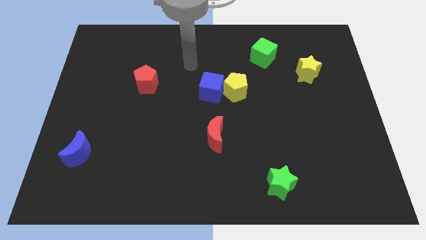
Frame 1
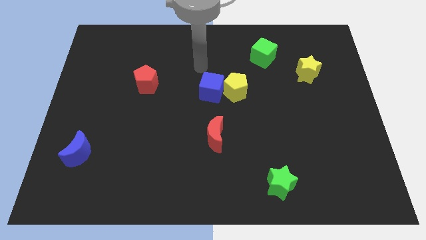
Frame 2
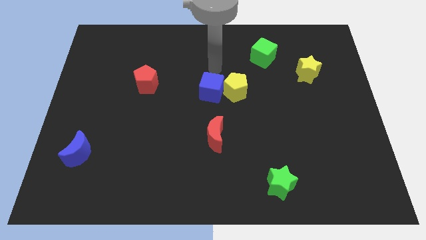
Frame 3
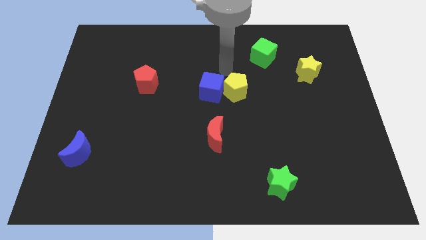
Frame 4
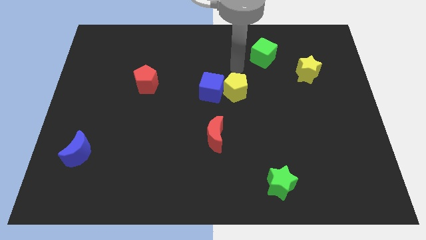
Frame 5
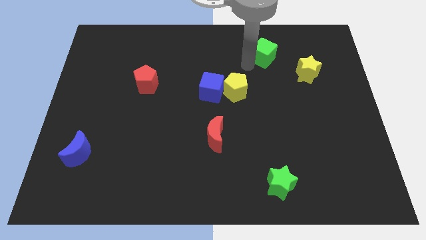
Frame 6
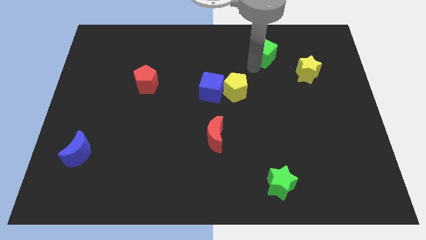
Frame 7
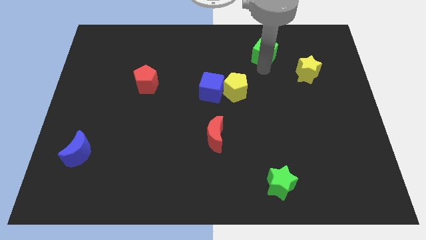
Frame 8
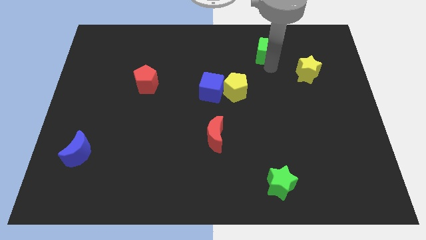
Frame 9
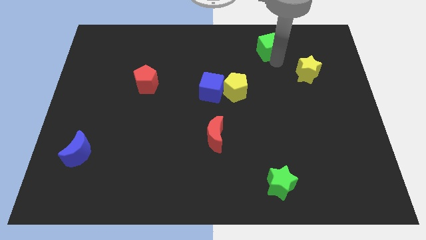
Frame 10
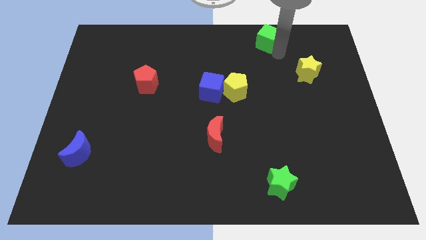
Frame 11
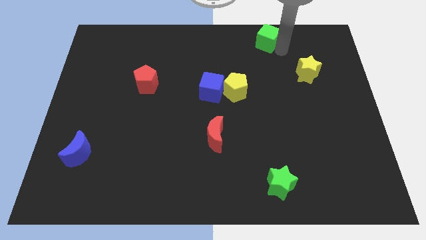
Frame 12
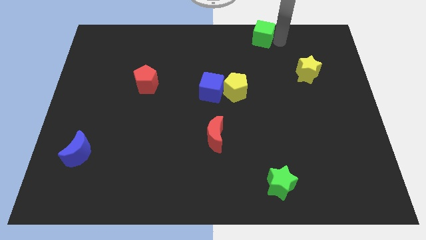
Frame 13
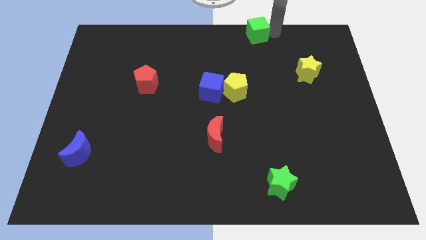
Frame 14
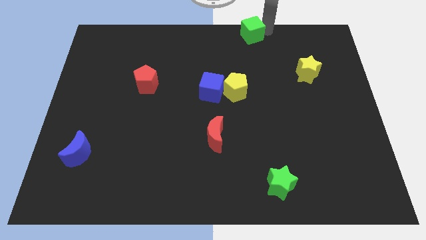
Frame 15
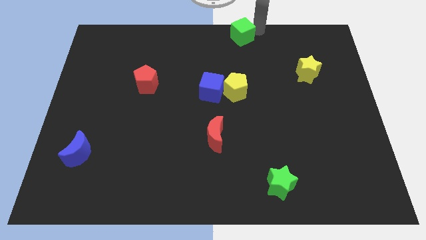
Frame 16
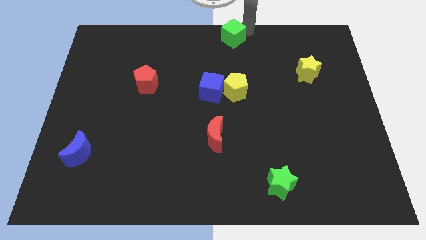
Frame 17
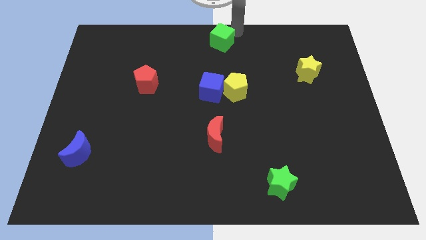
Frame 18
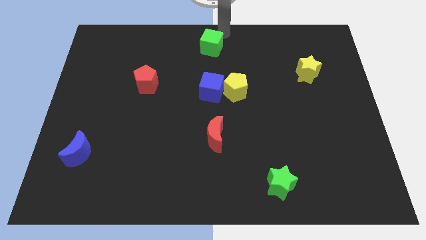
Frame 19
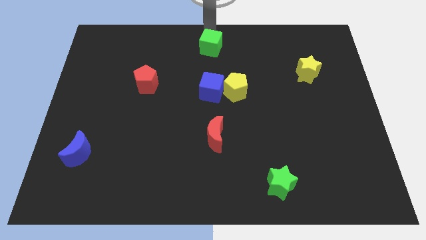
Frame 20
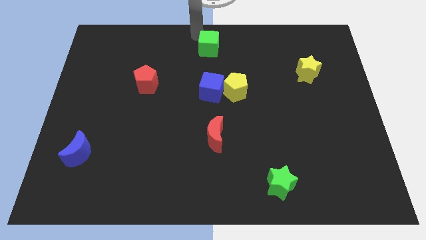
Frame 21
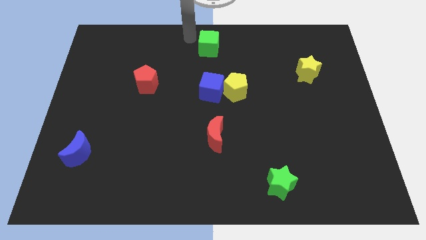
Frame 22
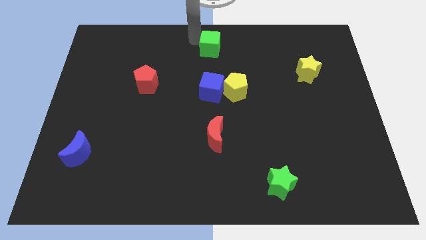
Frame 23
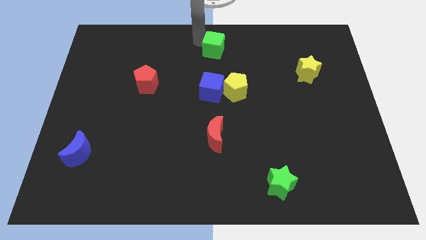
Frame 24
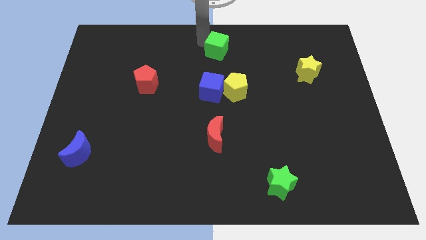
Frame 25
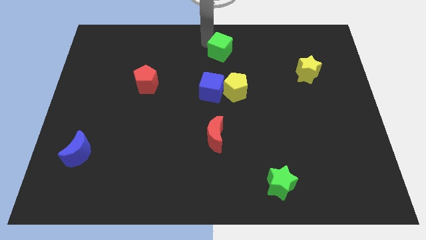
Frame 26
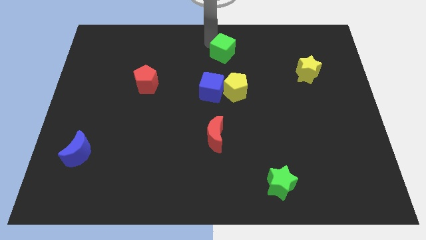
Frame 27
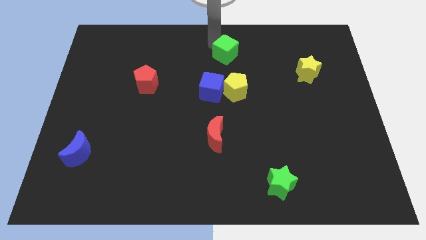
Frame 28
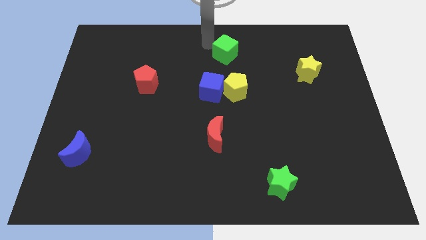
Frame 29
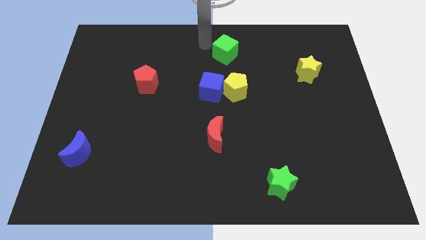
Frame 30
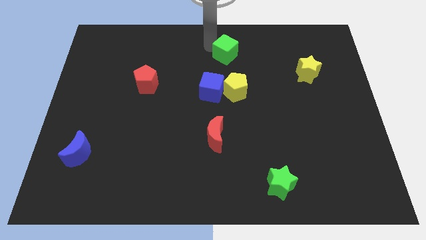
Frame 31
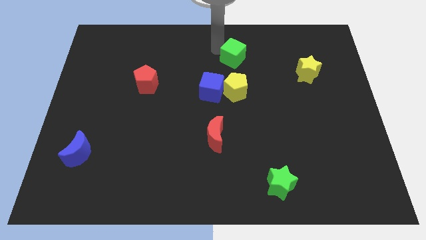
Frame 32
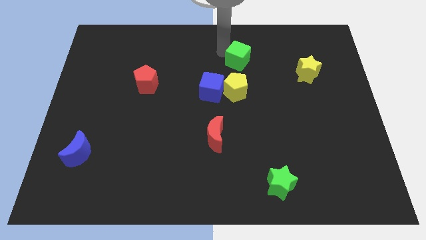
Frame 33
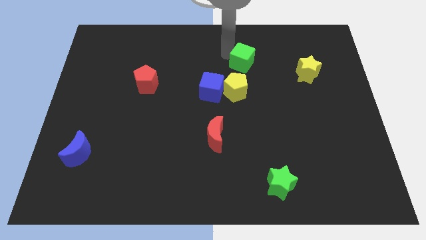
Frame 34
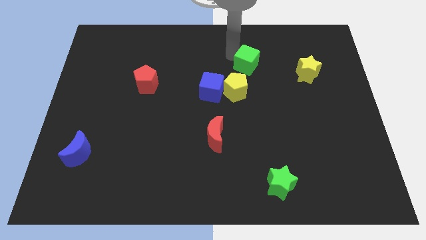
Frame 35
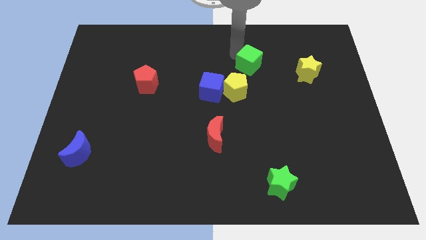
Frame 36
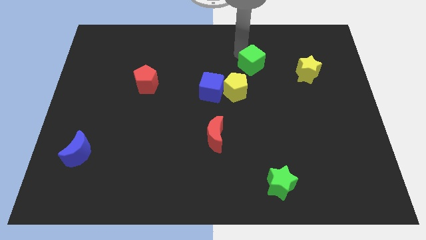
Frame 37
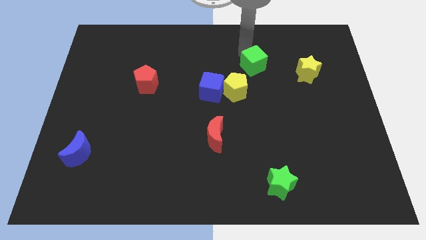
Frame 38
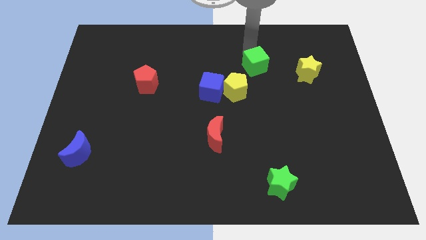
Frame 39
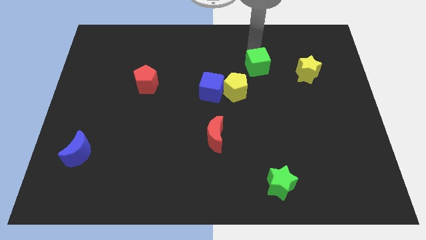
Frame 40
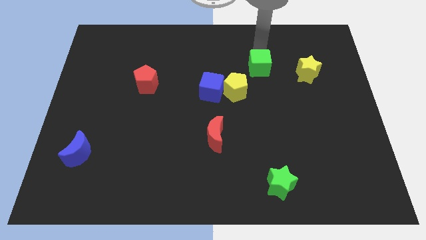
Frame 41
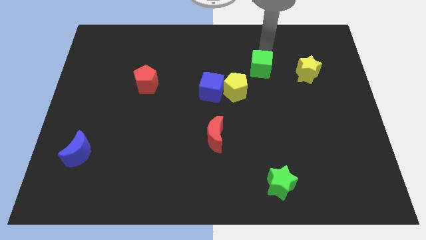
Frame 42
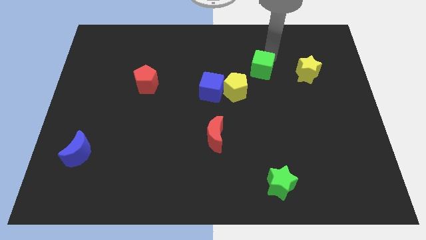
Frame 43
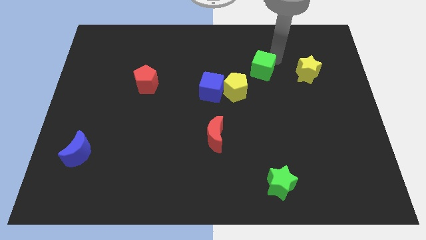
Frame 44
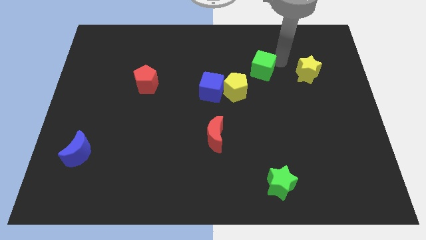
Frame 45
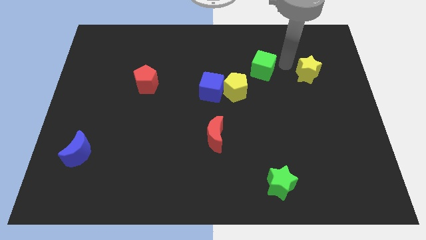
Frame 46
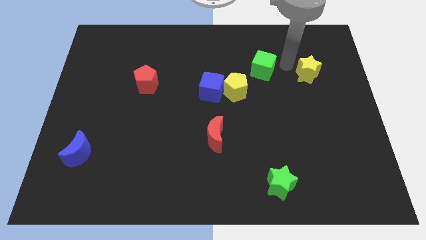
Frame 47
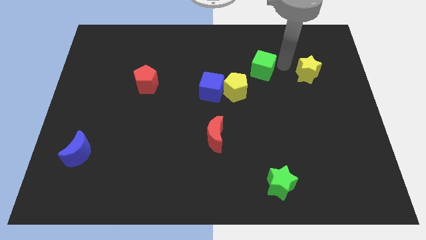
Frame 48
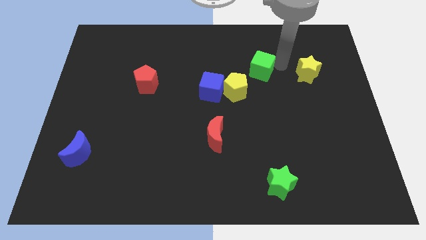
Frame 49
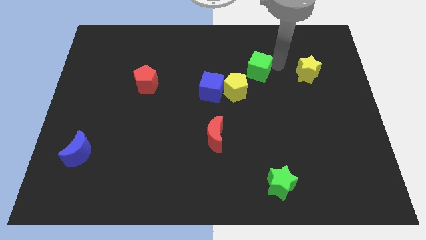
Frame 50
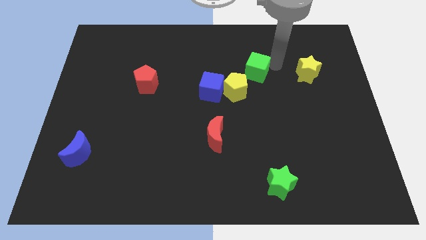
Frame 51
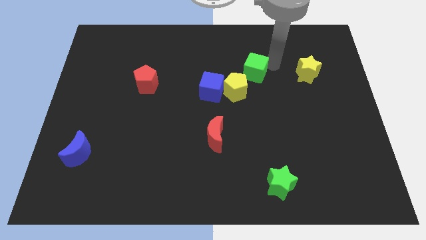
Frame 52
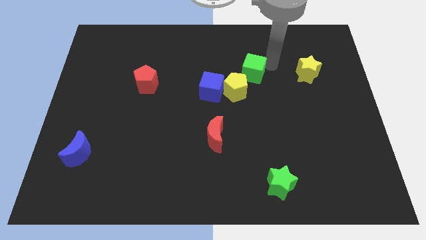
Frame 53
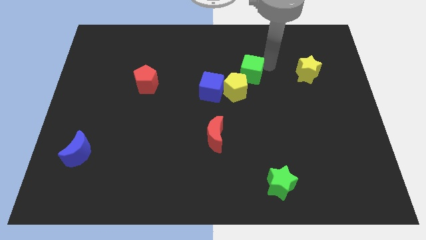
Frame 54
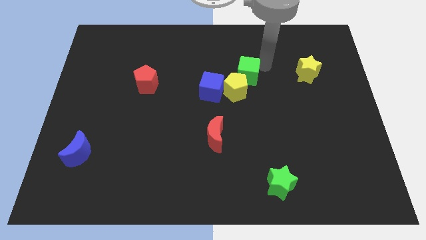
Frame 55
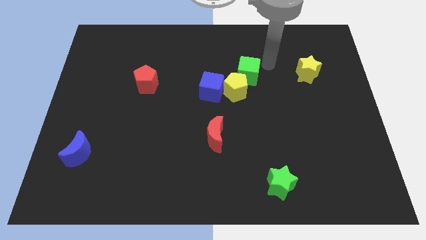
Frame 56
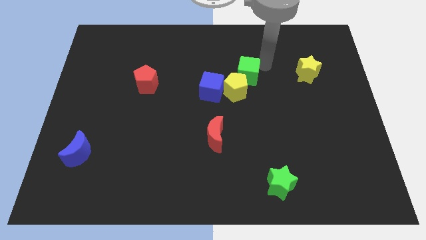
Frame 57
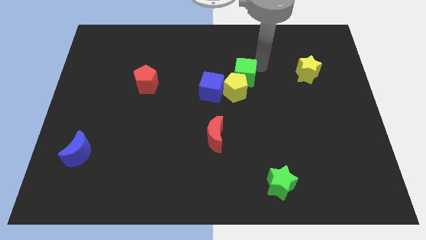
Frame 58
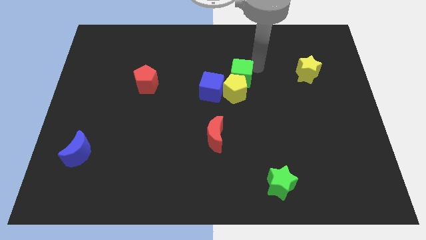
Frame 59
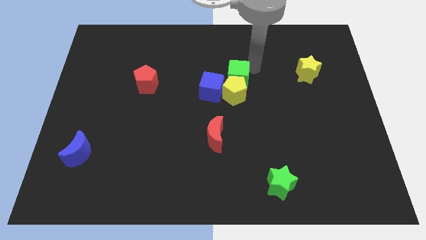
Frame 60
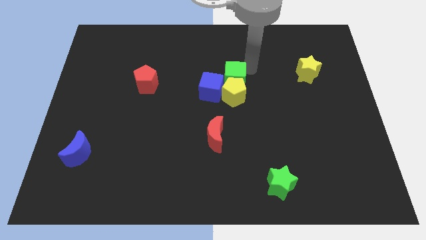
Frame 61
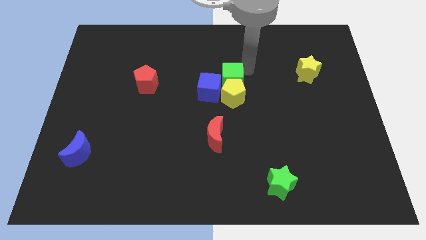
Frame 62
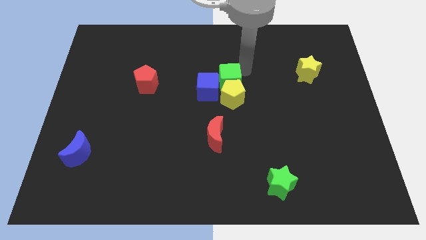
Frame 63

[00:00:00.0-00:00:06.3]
put the green cube next to the blue cube

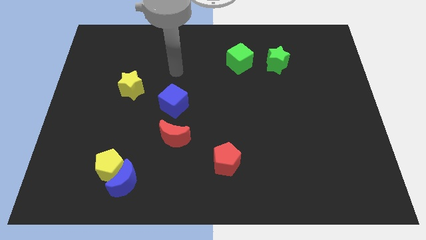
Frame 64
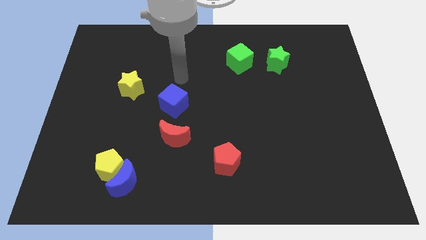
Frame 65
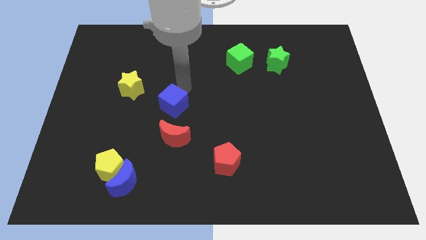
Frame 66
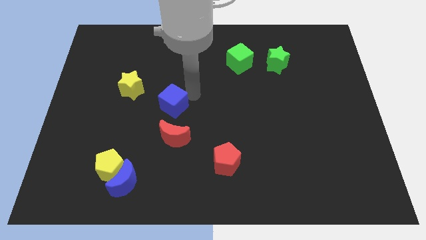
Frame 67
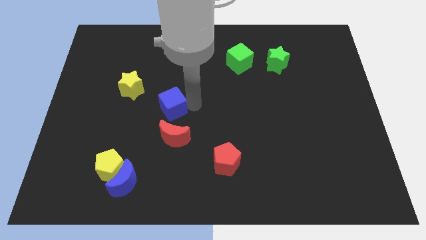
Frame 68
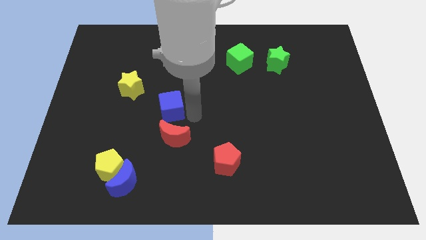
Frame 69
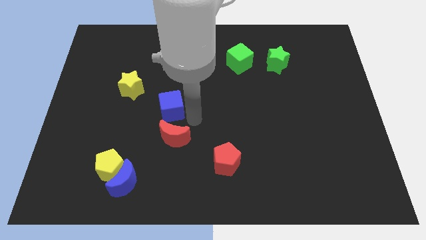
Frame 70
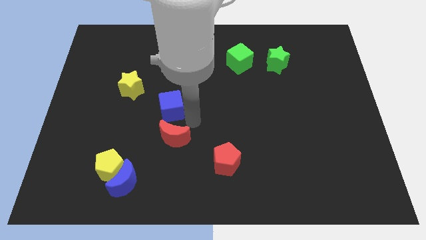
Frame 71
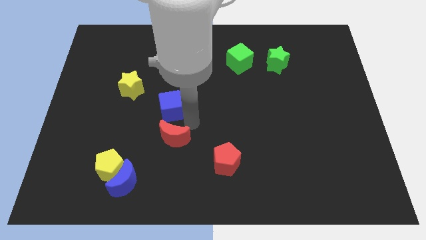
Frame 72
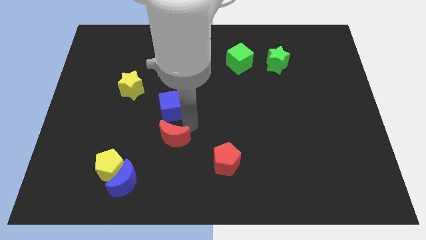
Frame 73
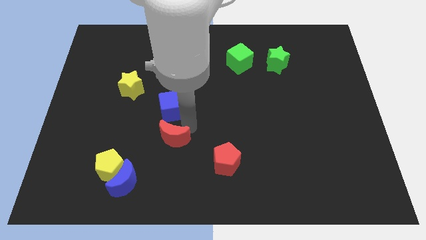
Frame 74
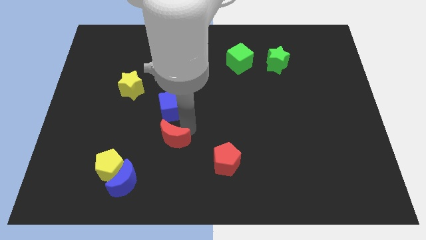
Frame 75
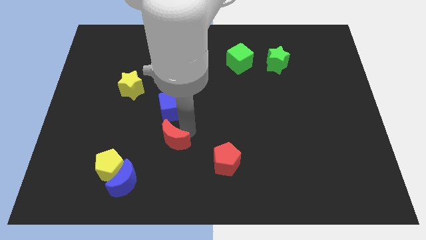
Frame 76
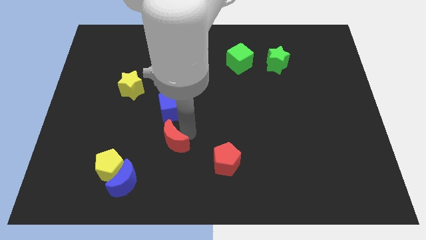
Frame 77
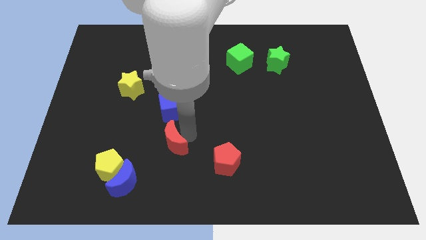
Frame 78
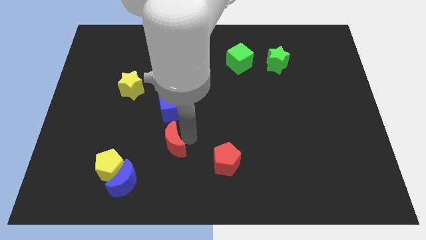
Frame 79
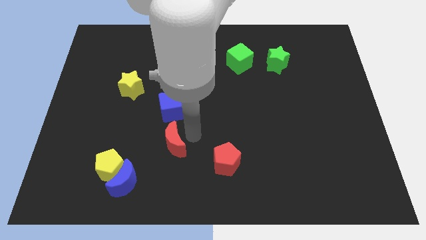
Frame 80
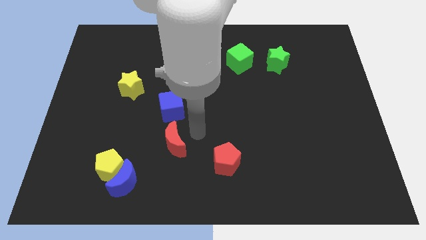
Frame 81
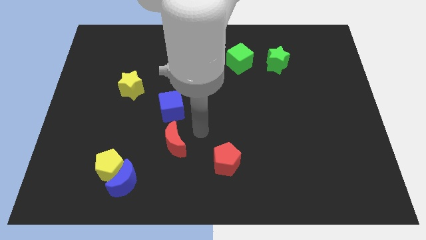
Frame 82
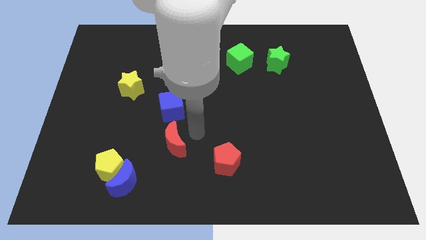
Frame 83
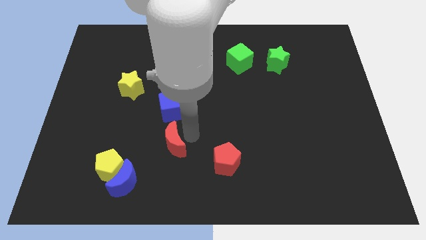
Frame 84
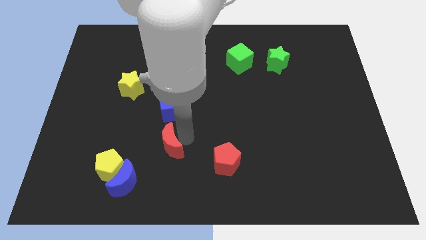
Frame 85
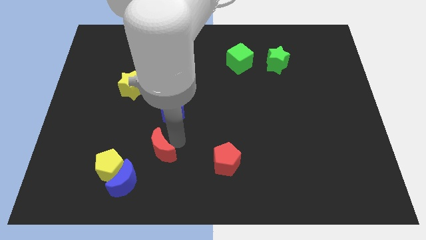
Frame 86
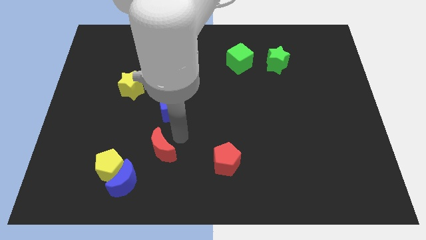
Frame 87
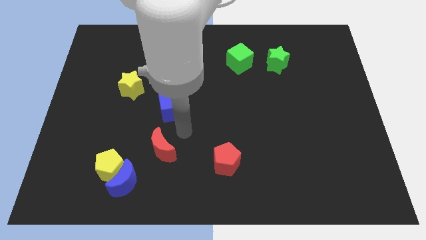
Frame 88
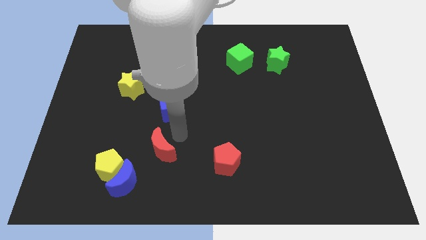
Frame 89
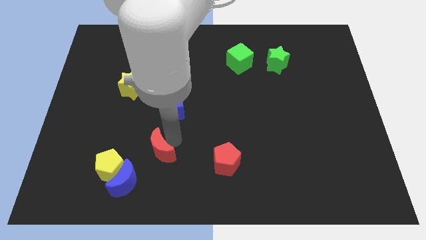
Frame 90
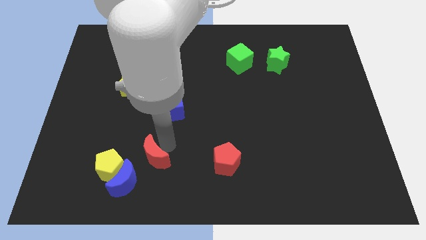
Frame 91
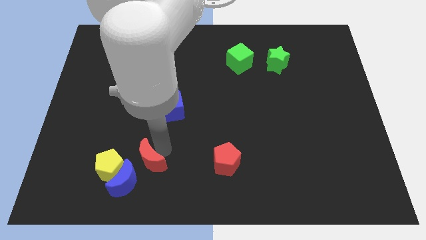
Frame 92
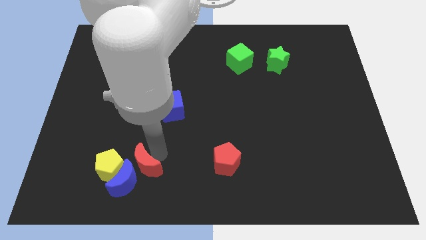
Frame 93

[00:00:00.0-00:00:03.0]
slide the red moon towards the blue moon
